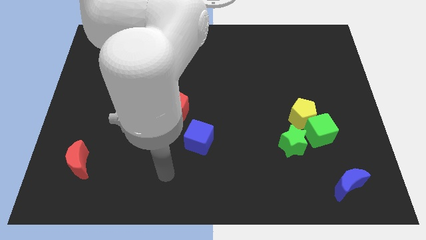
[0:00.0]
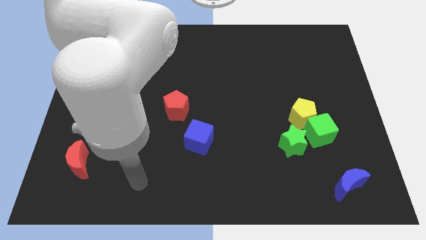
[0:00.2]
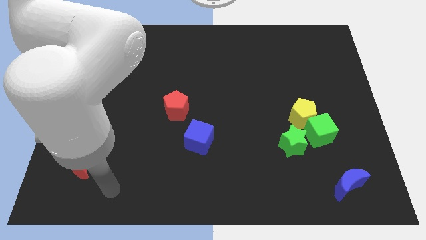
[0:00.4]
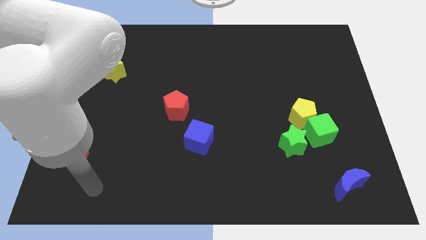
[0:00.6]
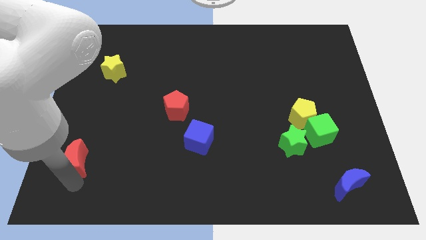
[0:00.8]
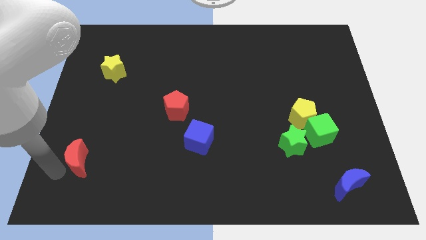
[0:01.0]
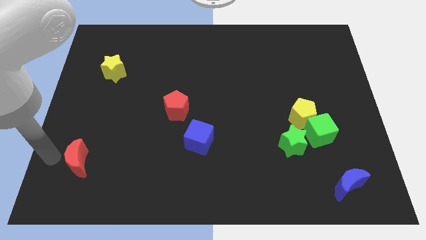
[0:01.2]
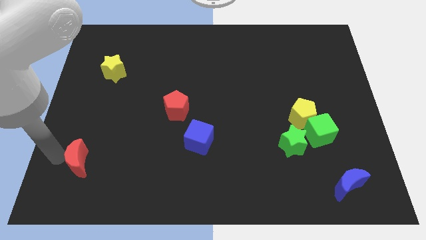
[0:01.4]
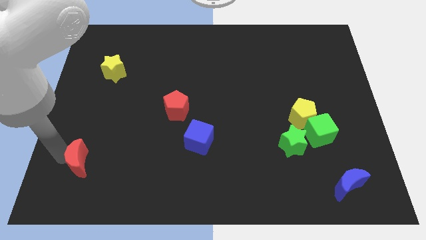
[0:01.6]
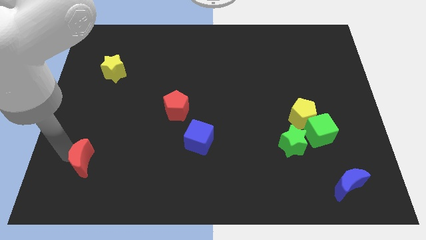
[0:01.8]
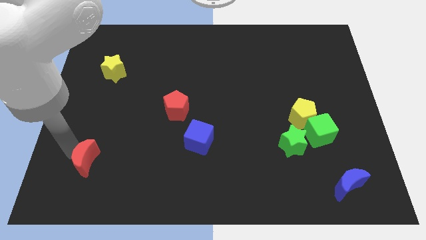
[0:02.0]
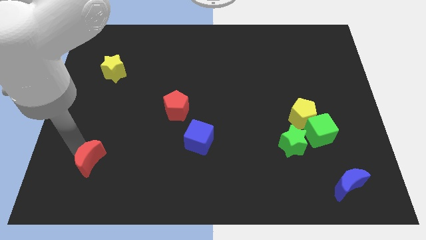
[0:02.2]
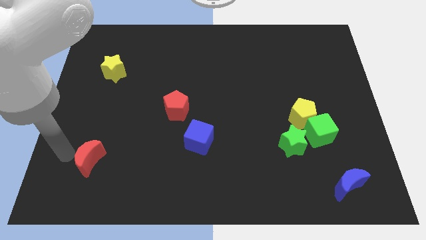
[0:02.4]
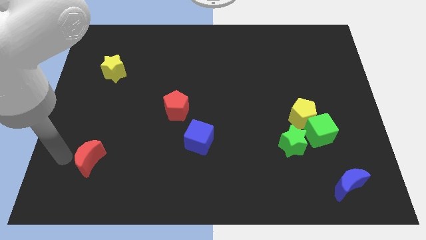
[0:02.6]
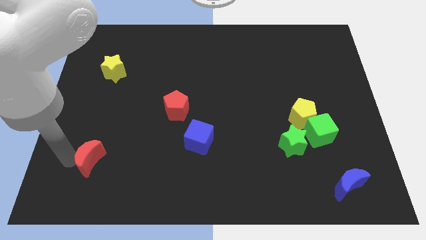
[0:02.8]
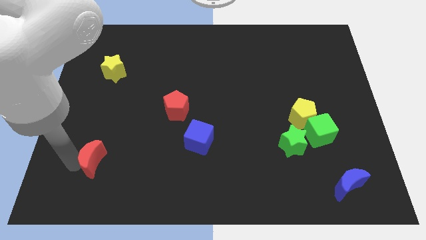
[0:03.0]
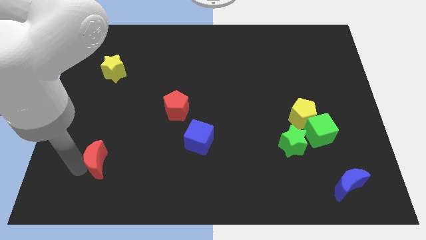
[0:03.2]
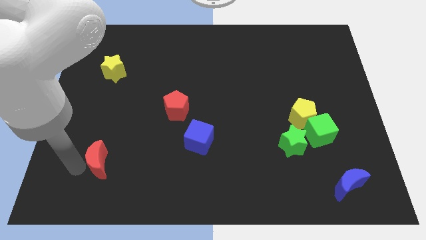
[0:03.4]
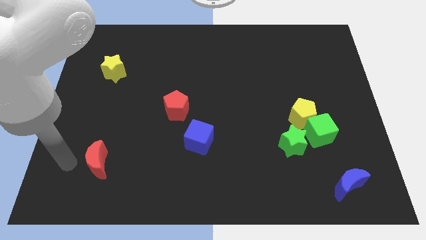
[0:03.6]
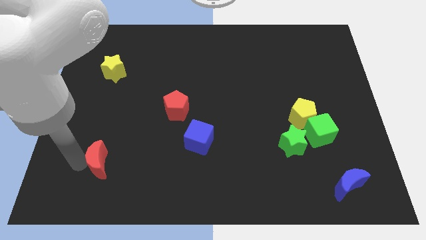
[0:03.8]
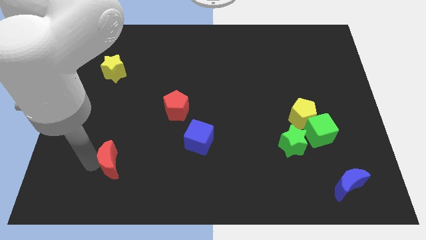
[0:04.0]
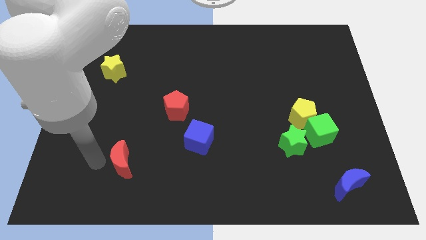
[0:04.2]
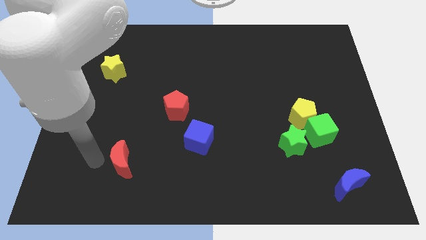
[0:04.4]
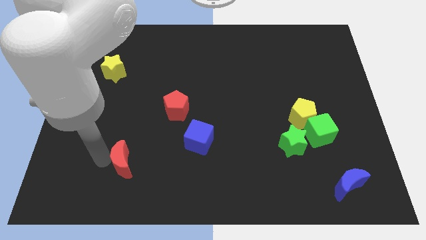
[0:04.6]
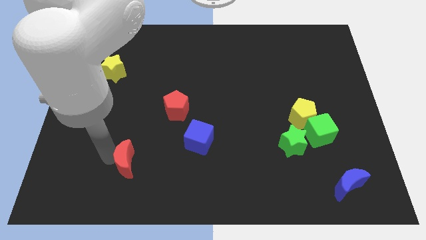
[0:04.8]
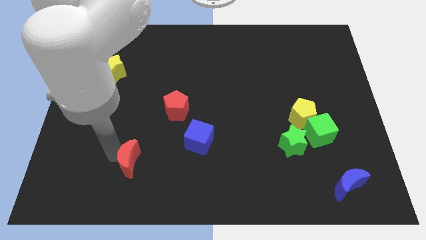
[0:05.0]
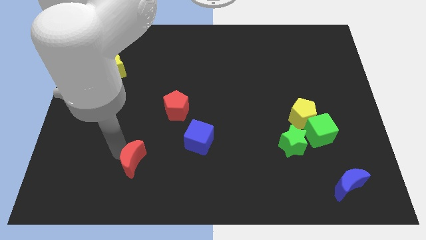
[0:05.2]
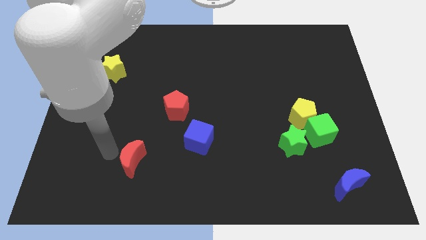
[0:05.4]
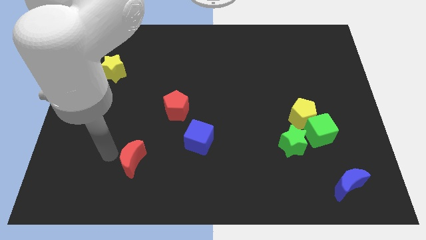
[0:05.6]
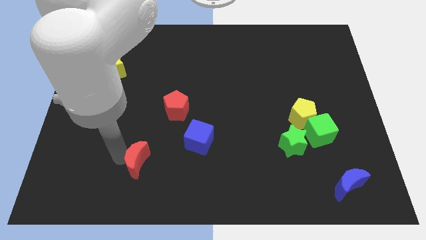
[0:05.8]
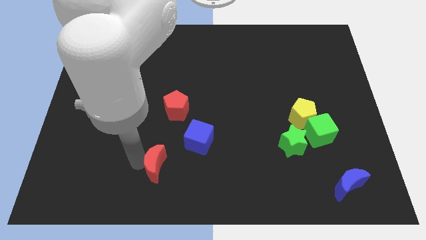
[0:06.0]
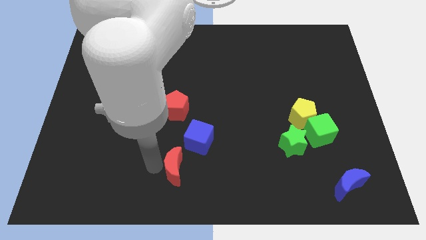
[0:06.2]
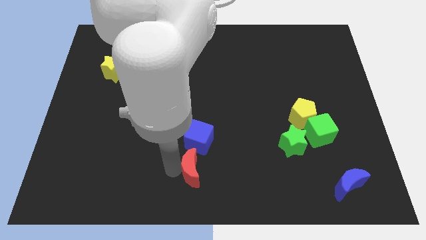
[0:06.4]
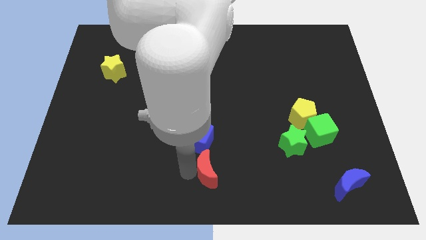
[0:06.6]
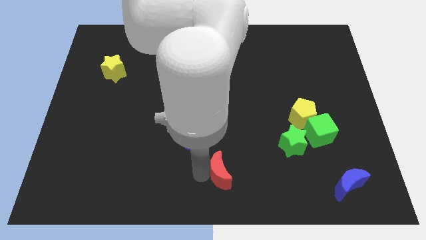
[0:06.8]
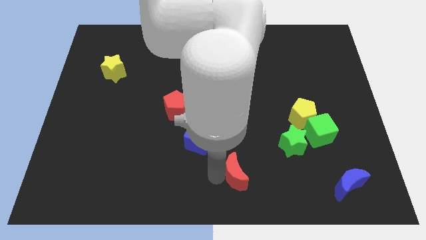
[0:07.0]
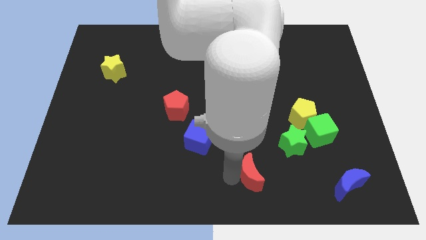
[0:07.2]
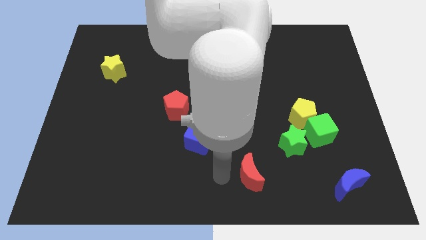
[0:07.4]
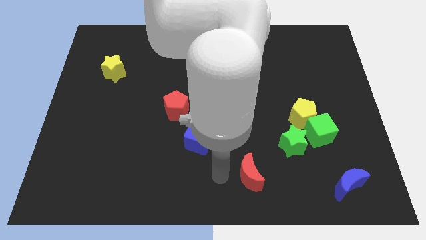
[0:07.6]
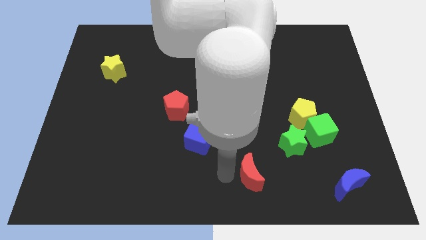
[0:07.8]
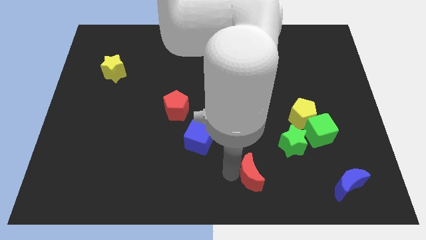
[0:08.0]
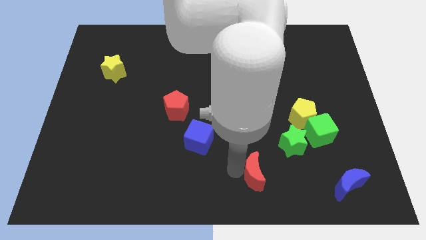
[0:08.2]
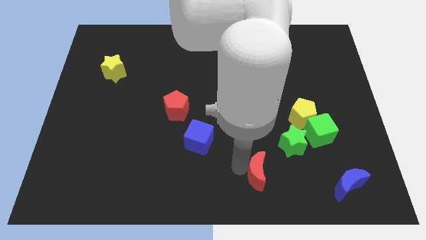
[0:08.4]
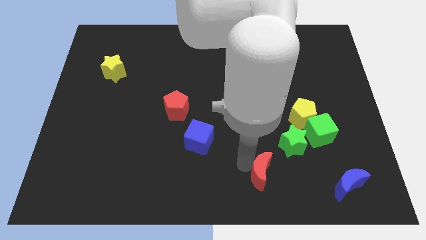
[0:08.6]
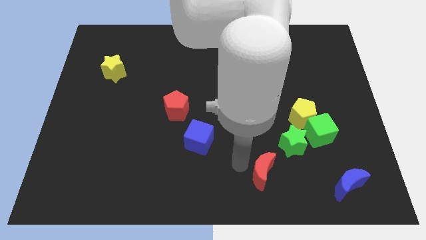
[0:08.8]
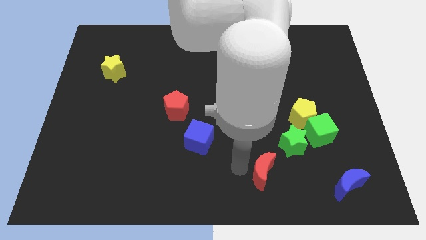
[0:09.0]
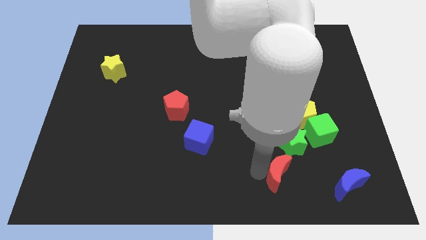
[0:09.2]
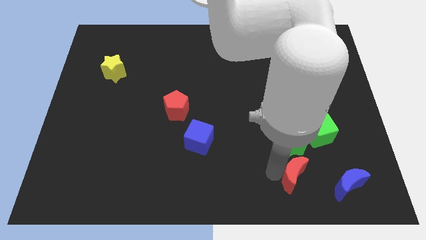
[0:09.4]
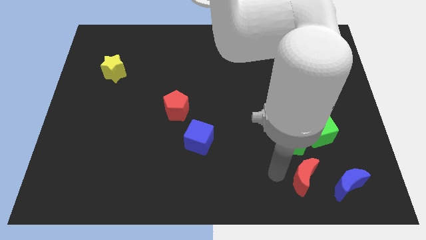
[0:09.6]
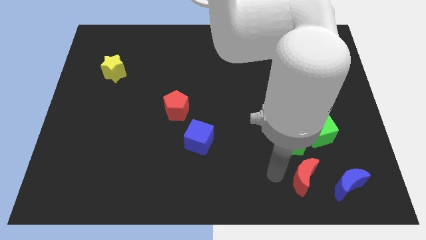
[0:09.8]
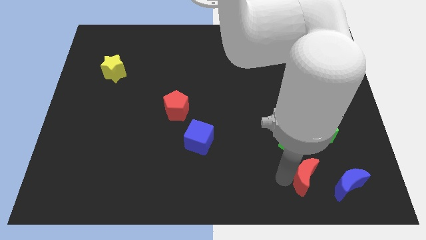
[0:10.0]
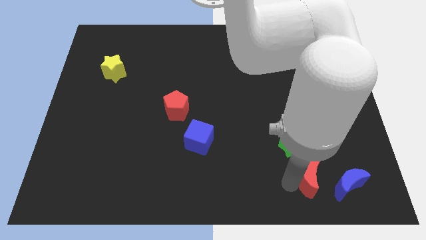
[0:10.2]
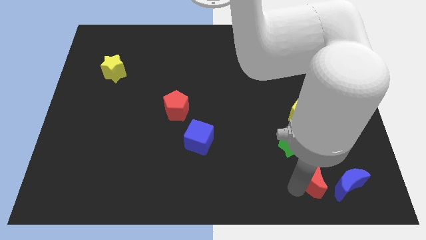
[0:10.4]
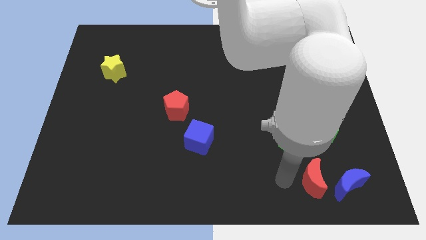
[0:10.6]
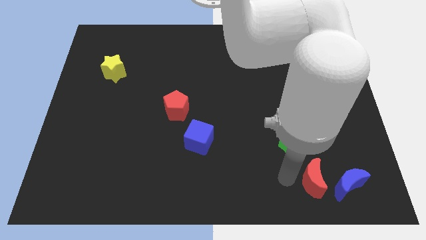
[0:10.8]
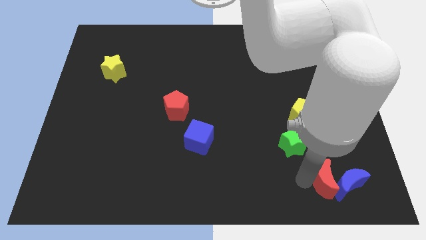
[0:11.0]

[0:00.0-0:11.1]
move the red moon towards the blue moon

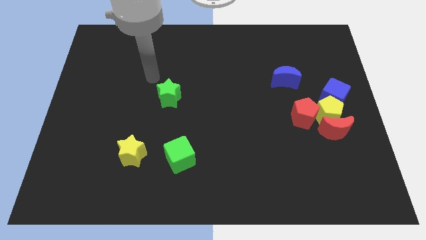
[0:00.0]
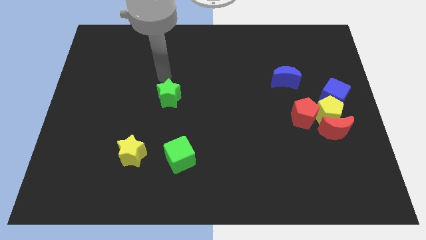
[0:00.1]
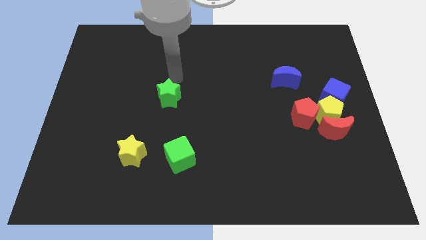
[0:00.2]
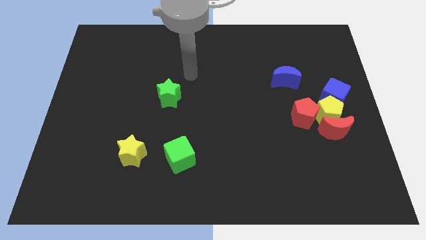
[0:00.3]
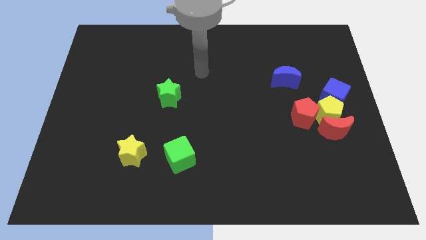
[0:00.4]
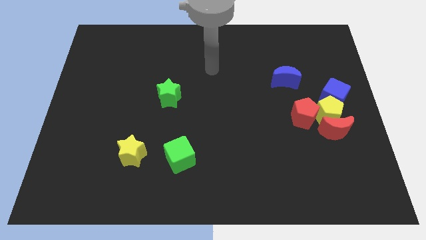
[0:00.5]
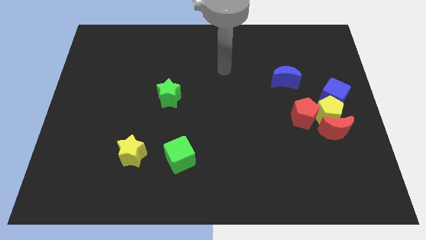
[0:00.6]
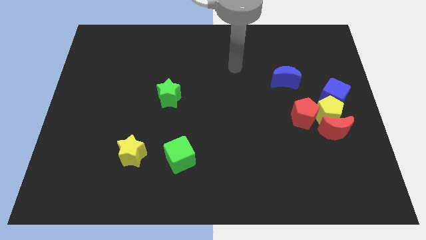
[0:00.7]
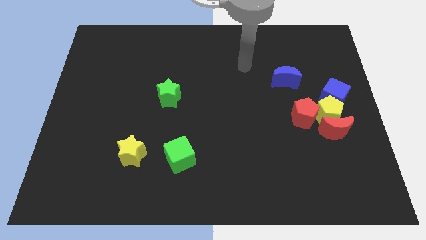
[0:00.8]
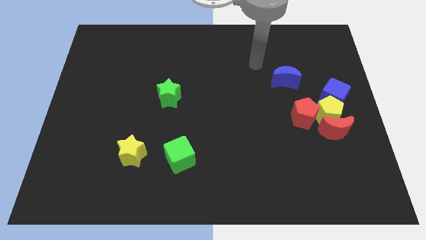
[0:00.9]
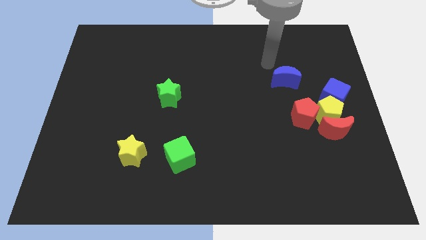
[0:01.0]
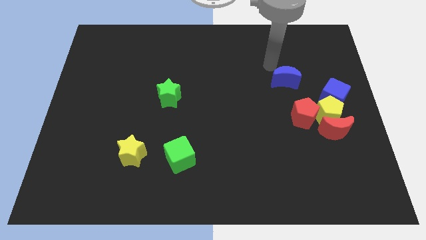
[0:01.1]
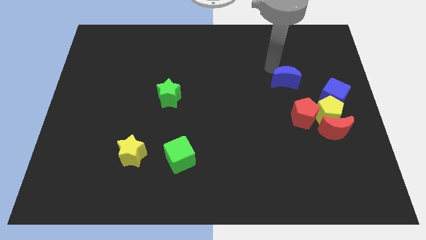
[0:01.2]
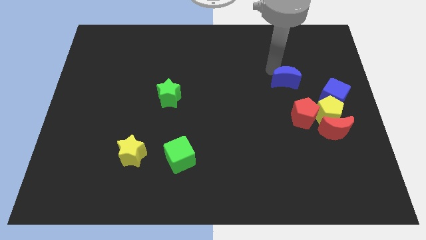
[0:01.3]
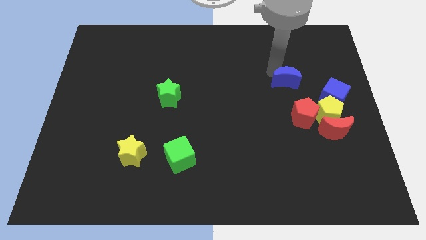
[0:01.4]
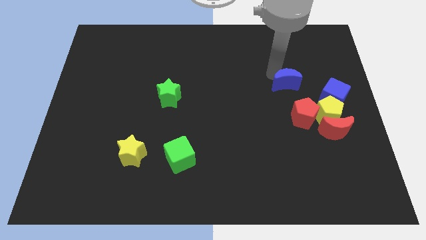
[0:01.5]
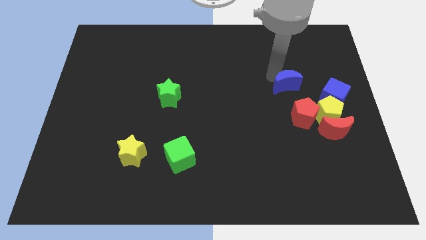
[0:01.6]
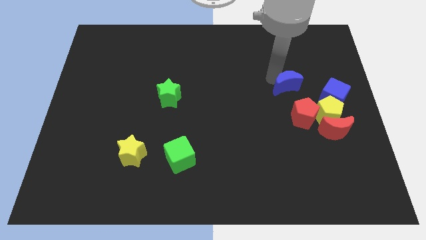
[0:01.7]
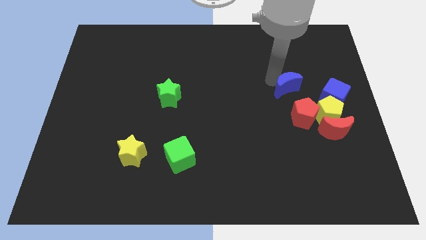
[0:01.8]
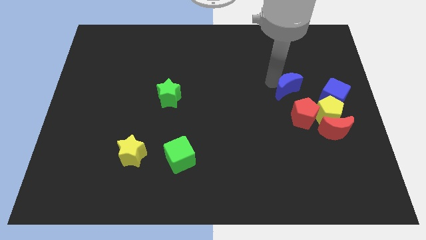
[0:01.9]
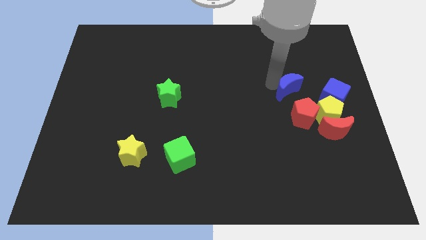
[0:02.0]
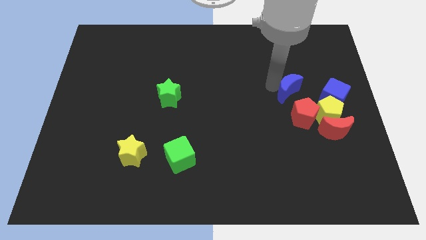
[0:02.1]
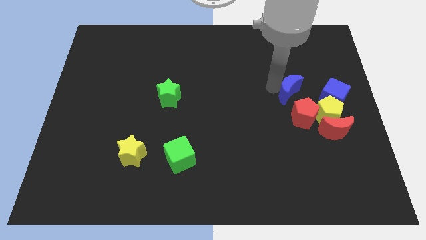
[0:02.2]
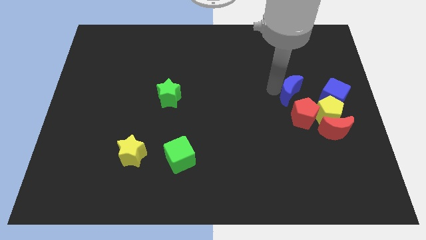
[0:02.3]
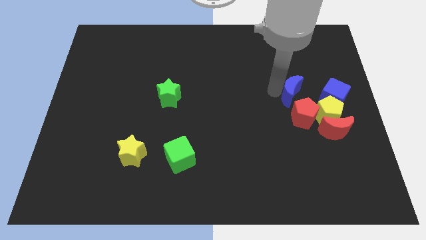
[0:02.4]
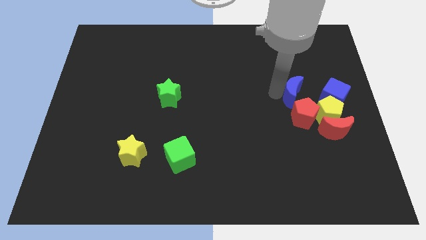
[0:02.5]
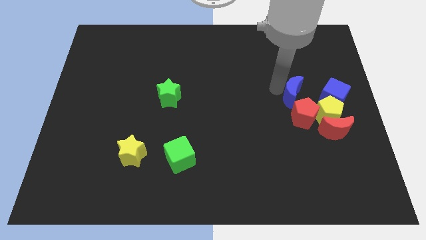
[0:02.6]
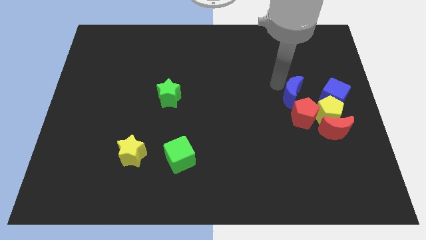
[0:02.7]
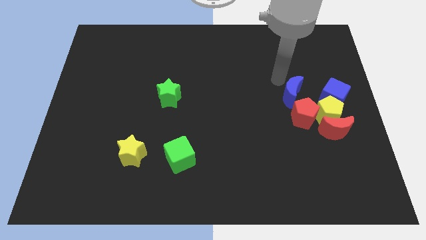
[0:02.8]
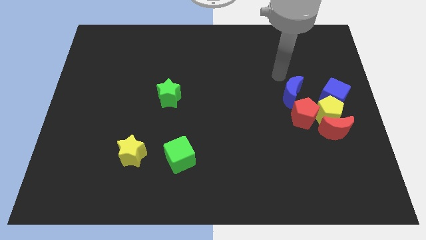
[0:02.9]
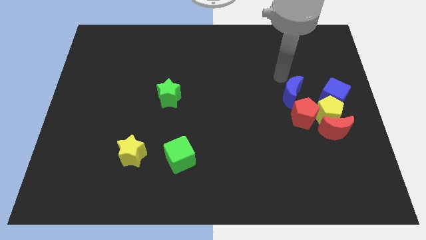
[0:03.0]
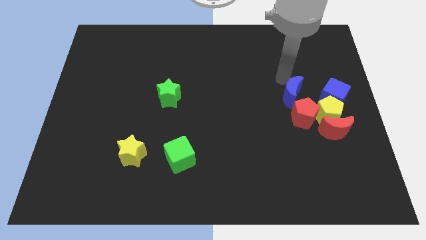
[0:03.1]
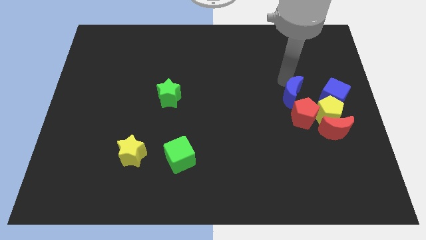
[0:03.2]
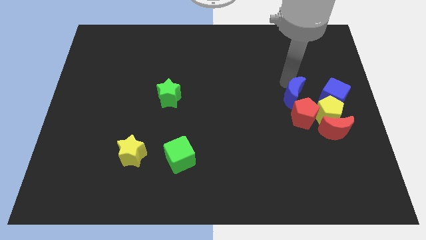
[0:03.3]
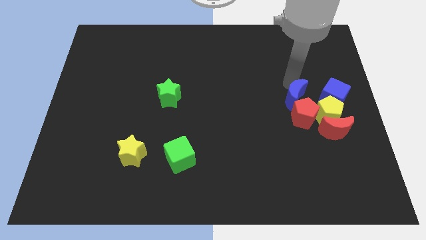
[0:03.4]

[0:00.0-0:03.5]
push the blue moon towards the red pentagon
